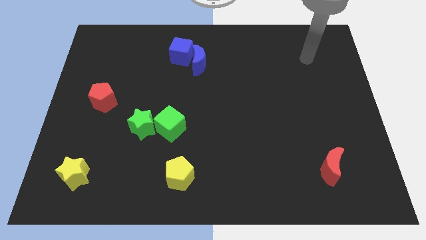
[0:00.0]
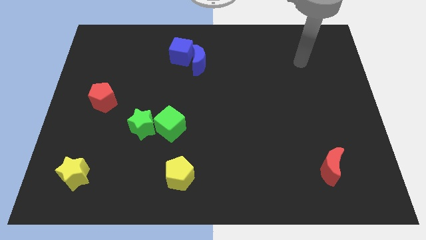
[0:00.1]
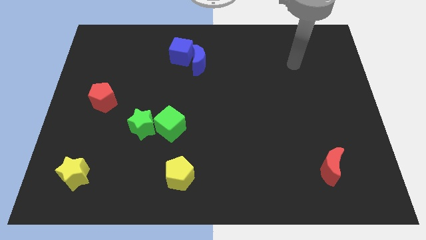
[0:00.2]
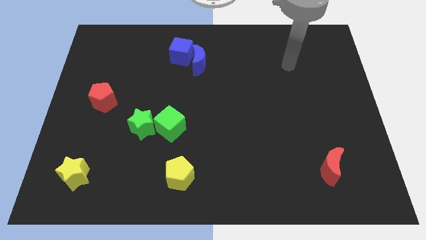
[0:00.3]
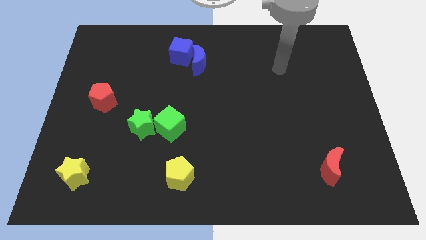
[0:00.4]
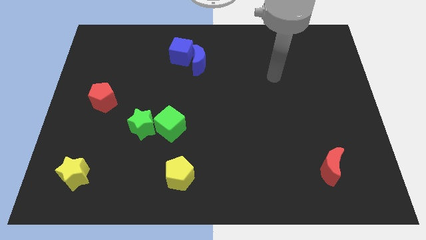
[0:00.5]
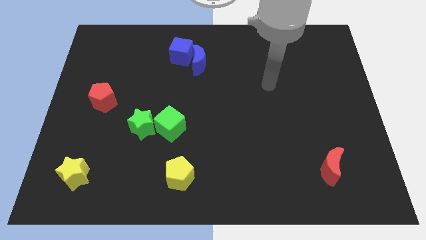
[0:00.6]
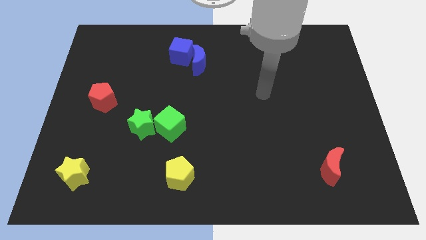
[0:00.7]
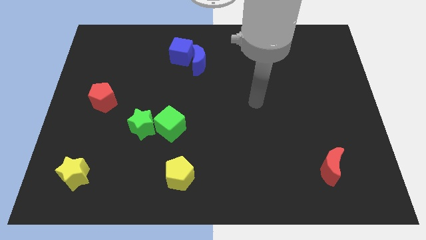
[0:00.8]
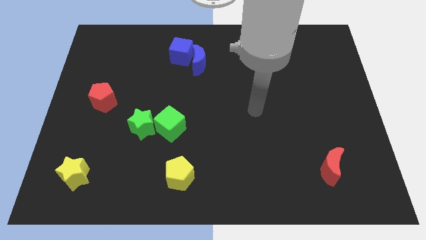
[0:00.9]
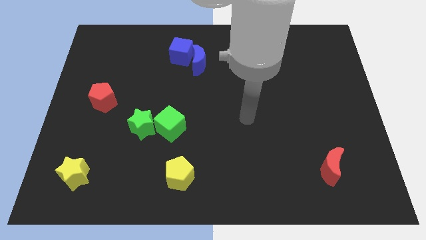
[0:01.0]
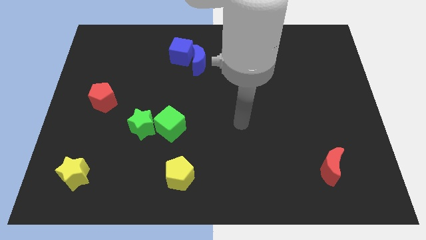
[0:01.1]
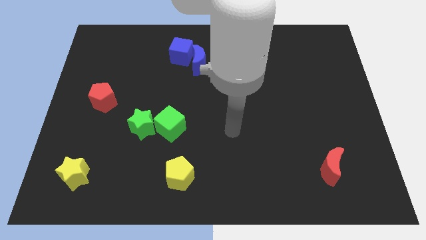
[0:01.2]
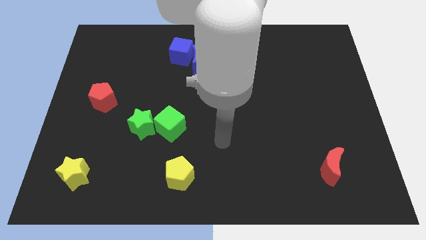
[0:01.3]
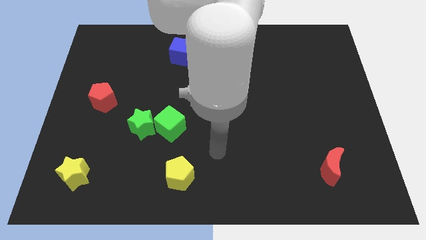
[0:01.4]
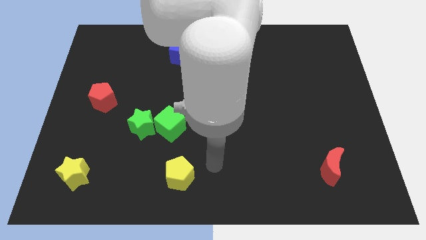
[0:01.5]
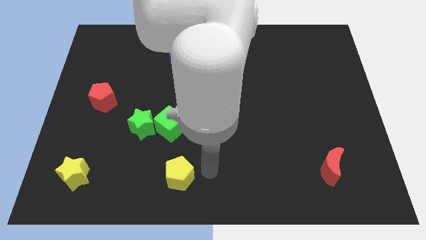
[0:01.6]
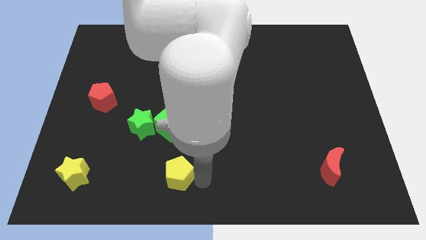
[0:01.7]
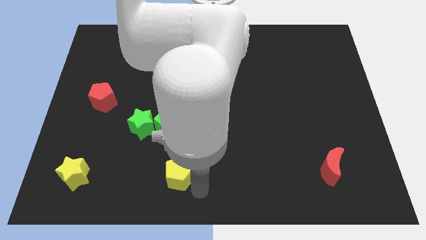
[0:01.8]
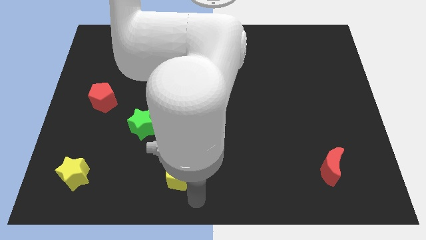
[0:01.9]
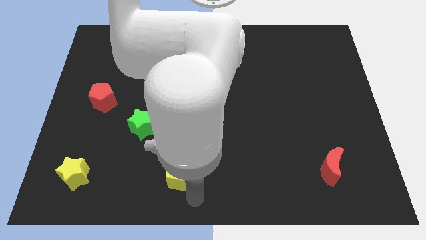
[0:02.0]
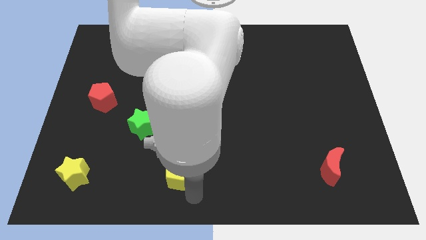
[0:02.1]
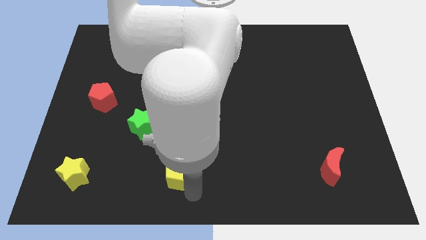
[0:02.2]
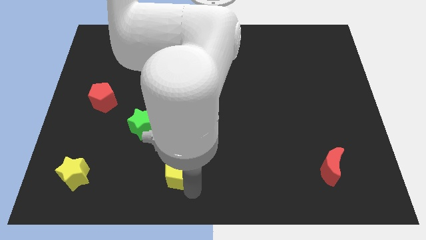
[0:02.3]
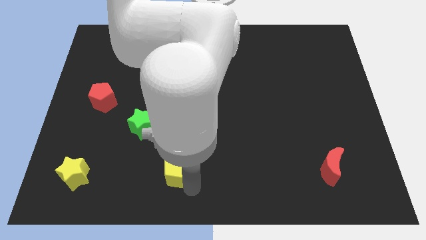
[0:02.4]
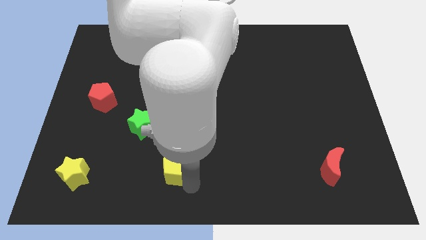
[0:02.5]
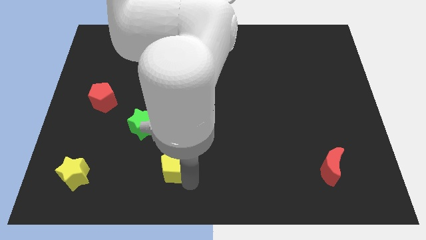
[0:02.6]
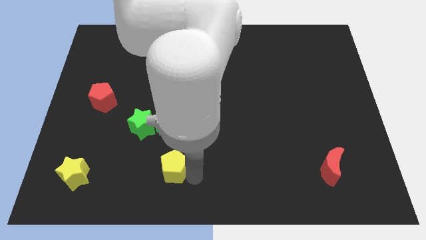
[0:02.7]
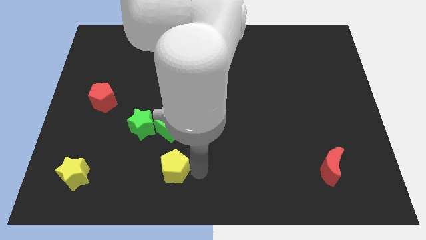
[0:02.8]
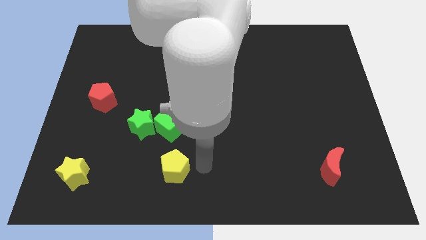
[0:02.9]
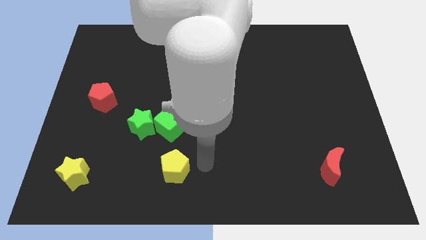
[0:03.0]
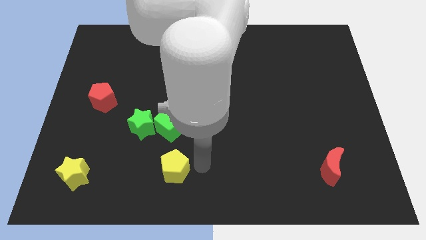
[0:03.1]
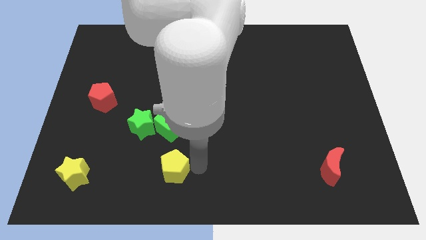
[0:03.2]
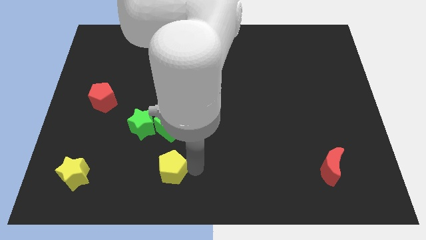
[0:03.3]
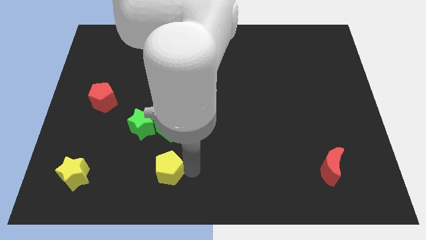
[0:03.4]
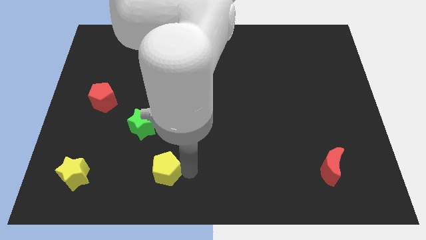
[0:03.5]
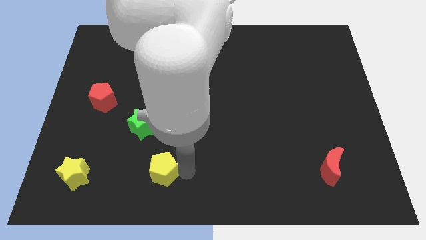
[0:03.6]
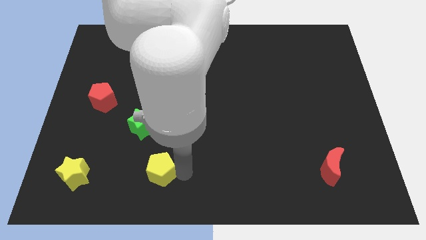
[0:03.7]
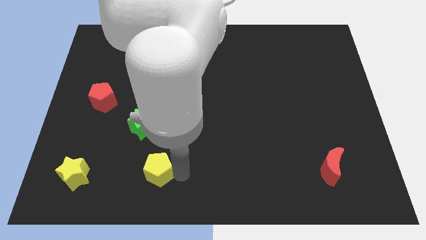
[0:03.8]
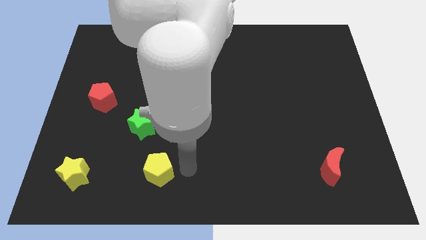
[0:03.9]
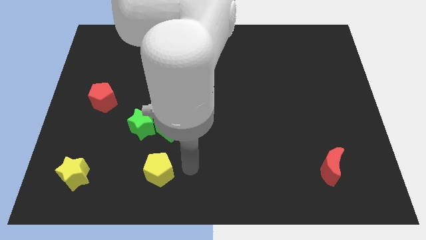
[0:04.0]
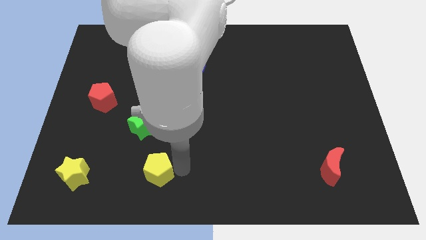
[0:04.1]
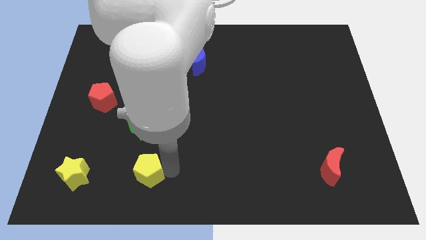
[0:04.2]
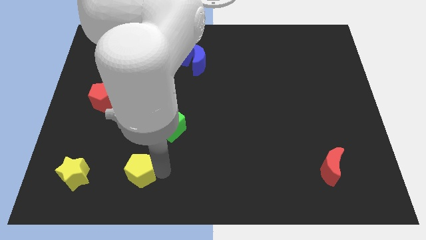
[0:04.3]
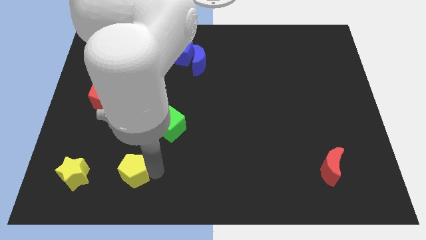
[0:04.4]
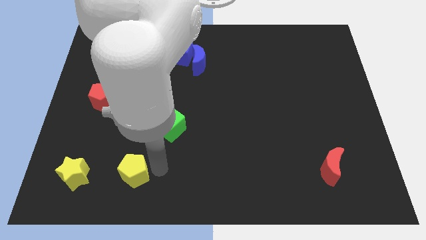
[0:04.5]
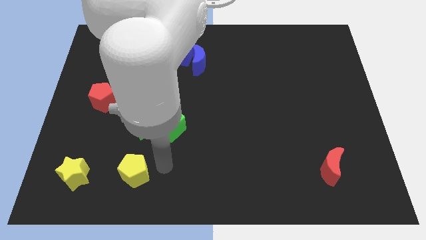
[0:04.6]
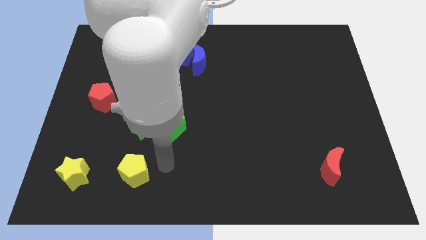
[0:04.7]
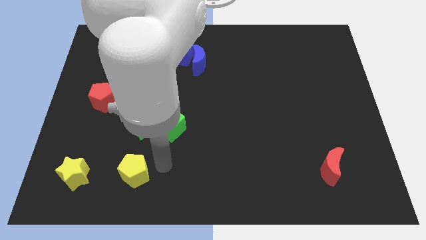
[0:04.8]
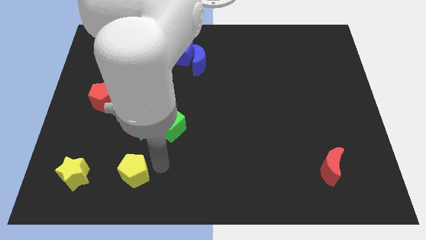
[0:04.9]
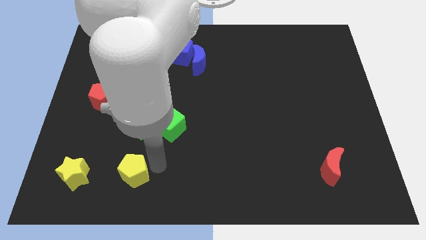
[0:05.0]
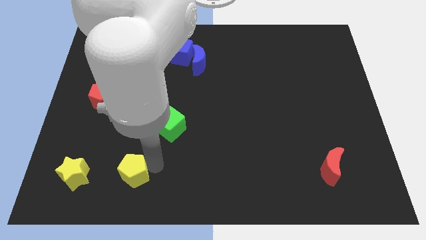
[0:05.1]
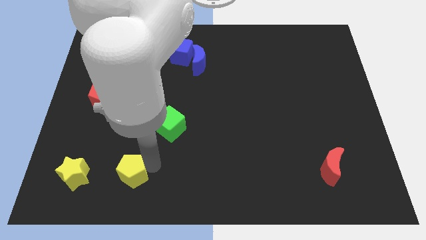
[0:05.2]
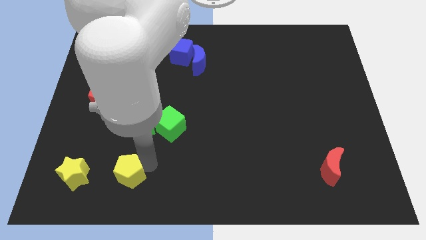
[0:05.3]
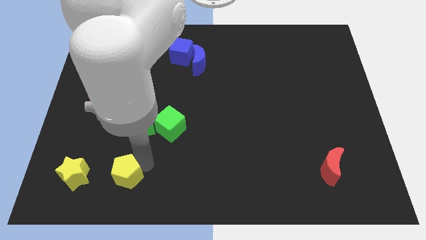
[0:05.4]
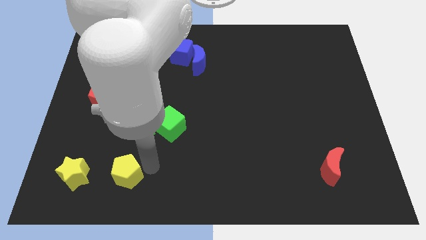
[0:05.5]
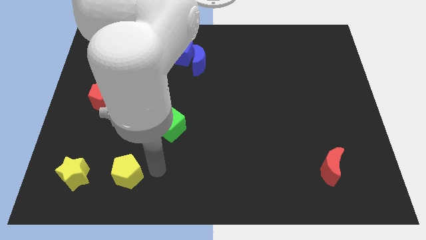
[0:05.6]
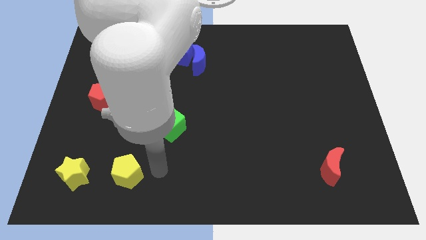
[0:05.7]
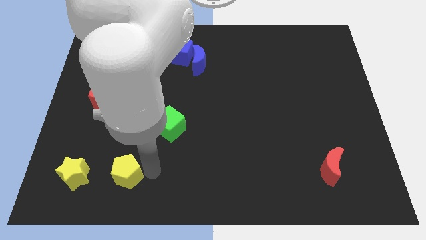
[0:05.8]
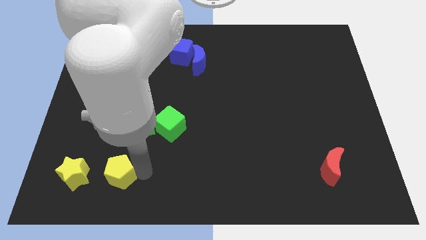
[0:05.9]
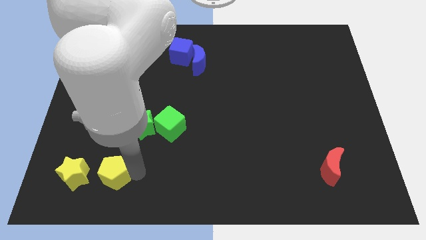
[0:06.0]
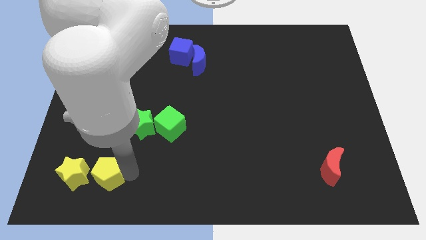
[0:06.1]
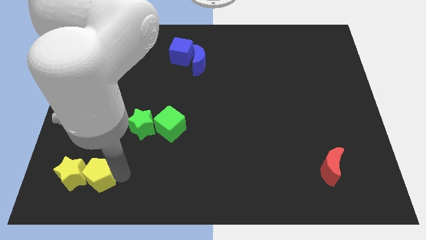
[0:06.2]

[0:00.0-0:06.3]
push the yellow pentagon next to the yellow star

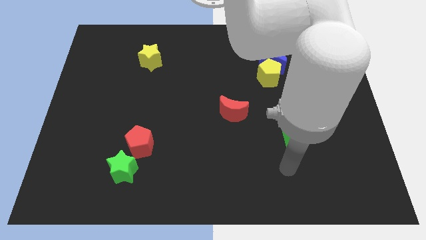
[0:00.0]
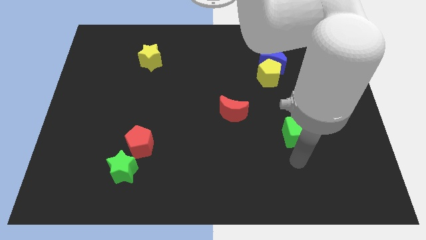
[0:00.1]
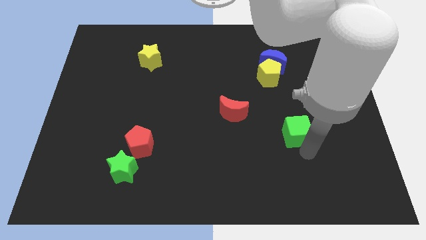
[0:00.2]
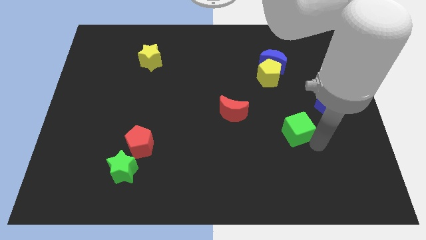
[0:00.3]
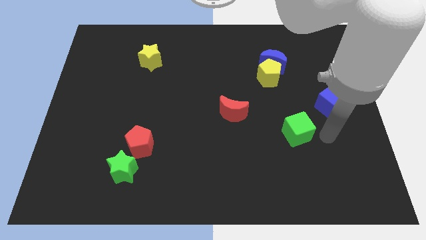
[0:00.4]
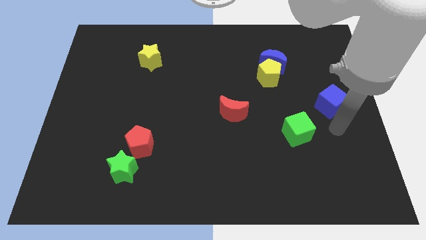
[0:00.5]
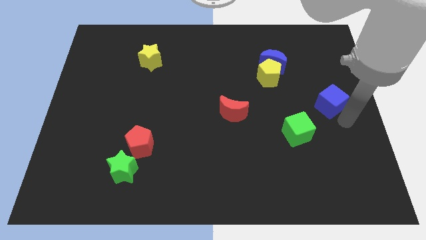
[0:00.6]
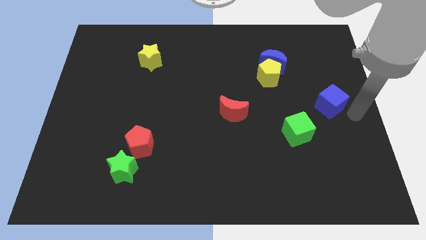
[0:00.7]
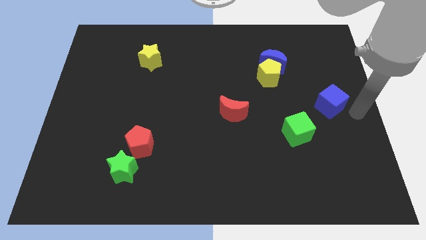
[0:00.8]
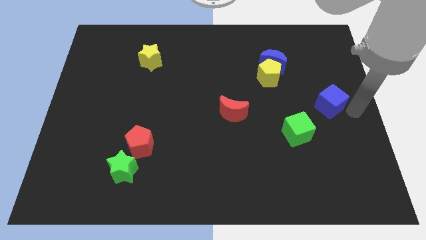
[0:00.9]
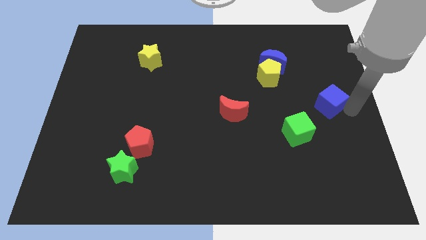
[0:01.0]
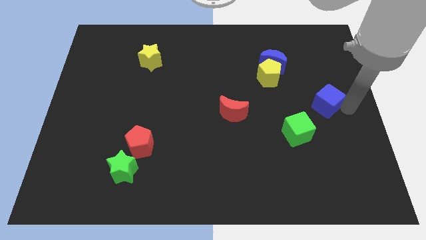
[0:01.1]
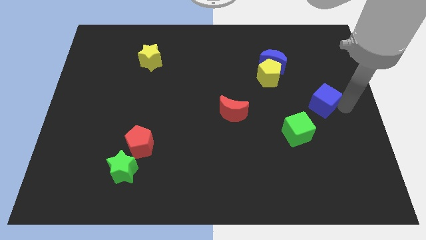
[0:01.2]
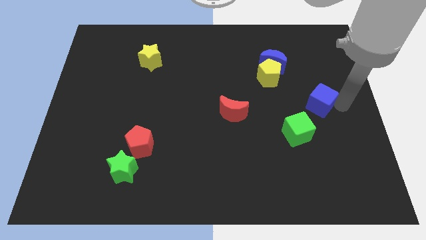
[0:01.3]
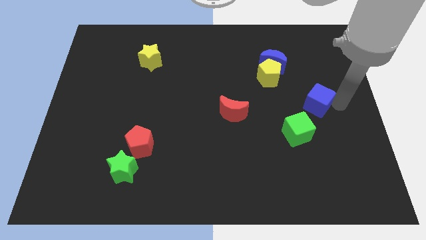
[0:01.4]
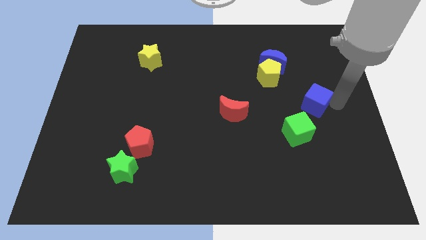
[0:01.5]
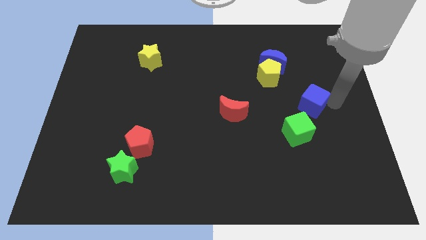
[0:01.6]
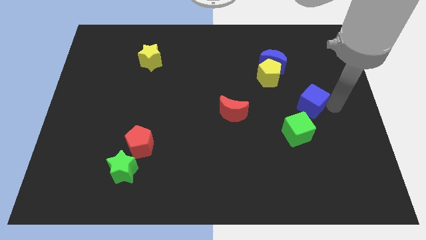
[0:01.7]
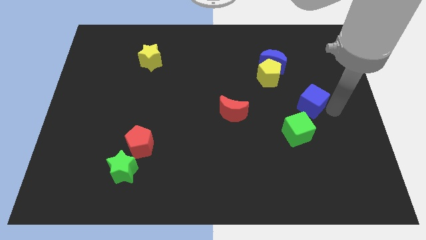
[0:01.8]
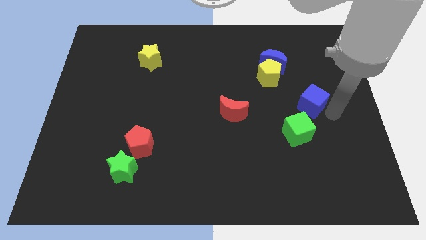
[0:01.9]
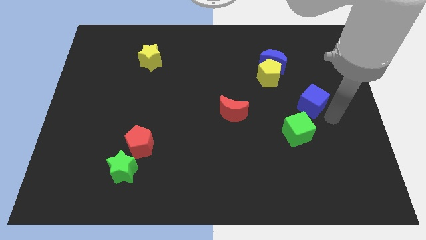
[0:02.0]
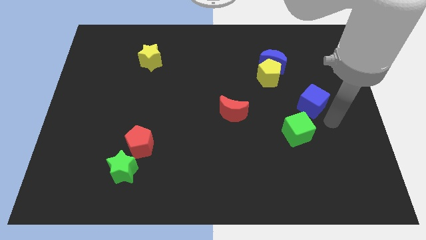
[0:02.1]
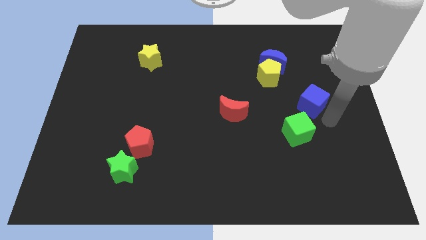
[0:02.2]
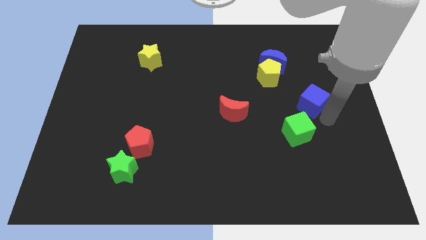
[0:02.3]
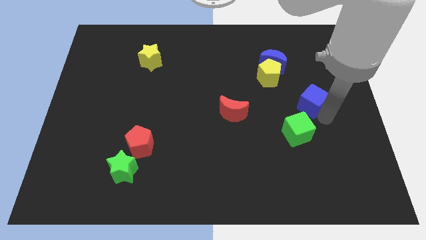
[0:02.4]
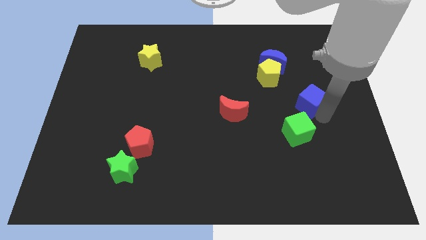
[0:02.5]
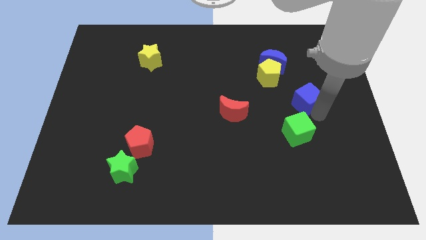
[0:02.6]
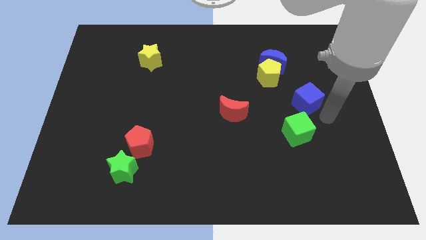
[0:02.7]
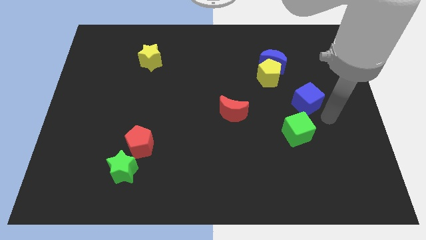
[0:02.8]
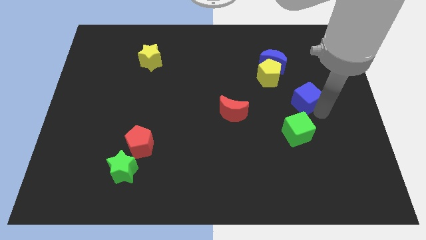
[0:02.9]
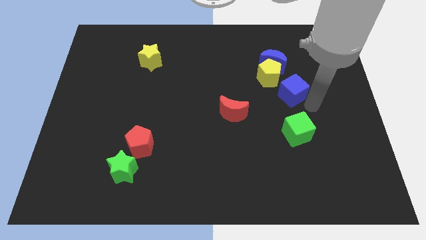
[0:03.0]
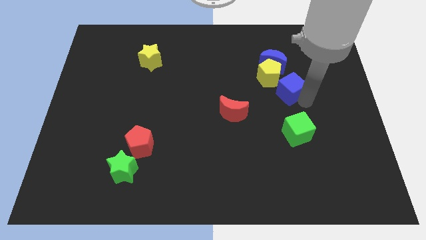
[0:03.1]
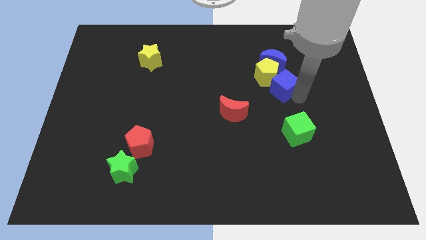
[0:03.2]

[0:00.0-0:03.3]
push the blue cube close to the yellow pentagon
